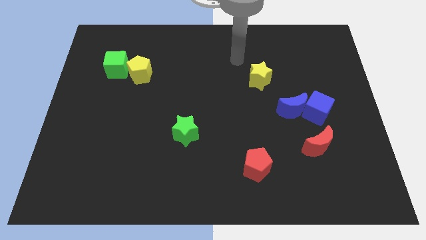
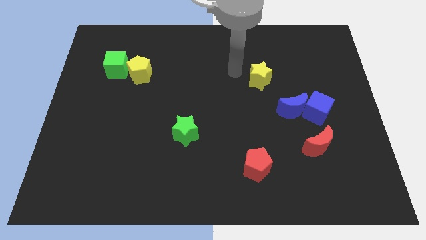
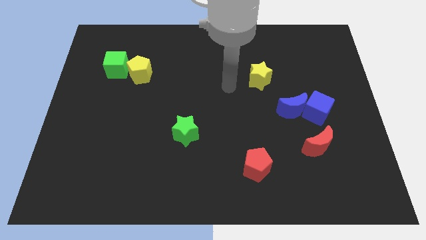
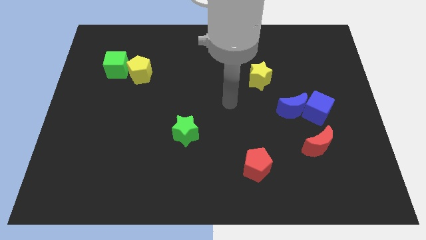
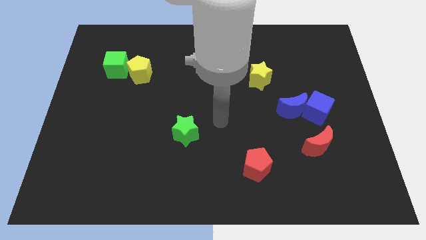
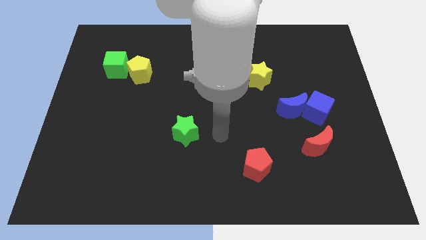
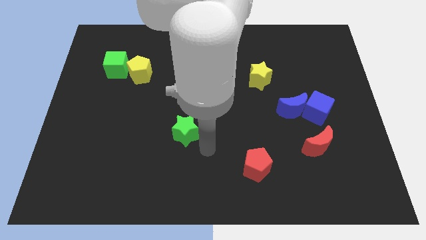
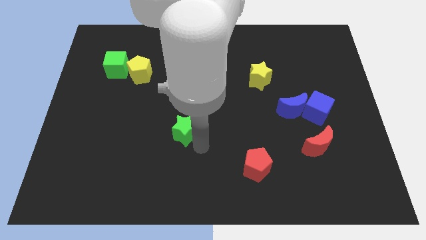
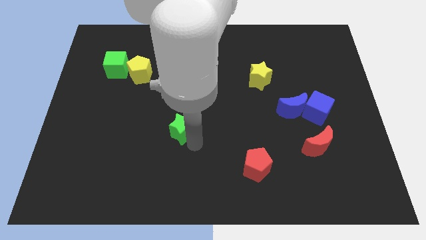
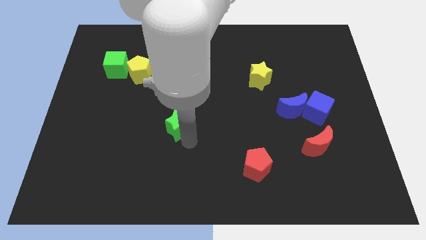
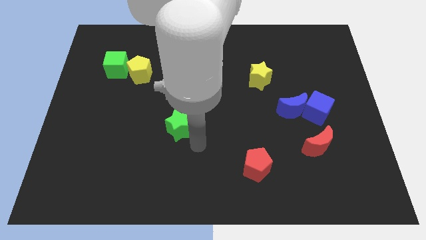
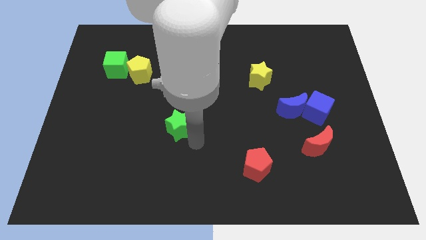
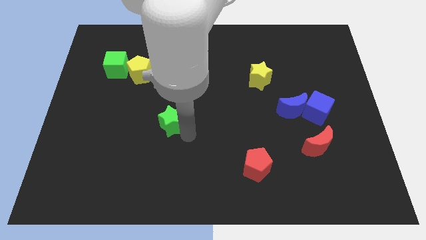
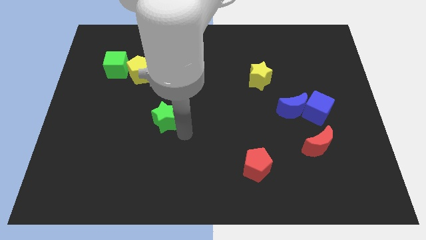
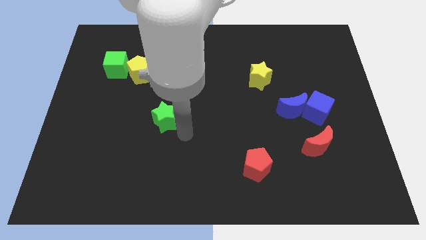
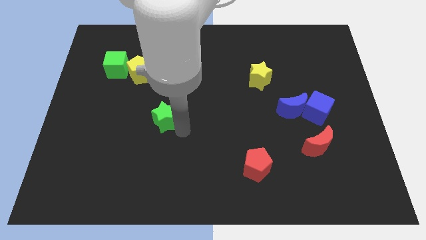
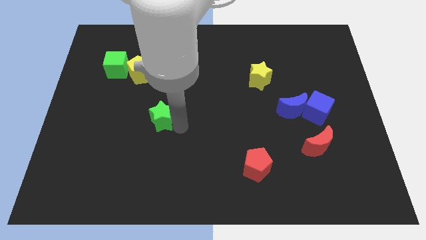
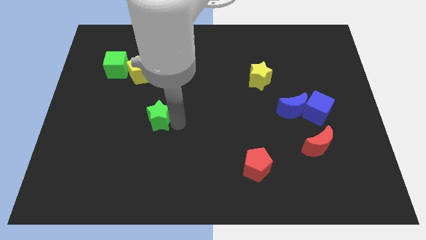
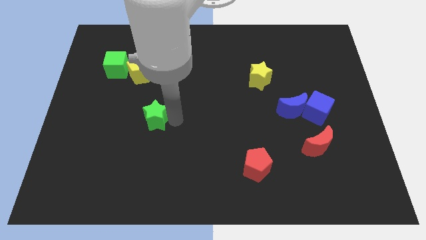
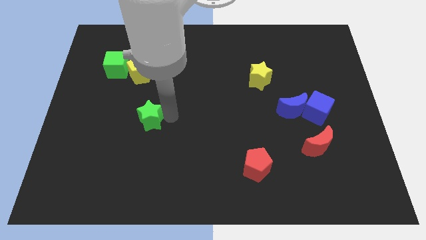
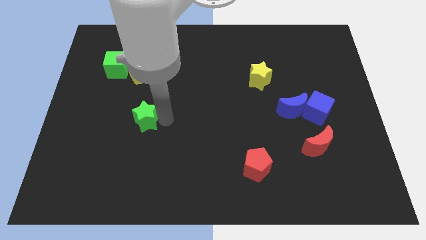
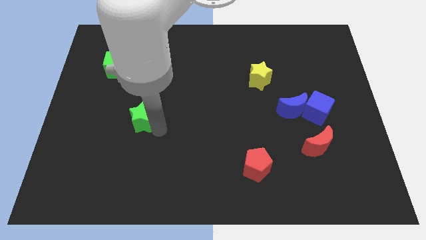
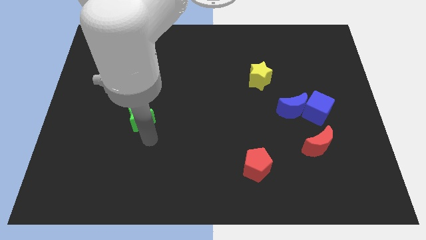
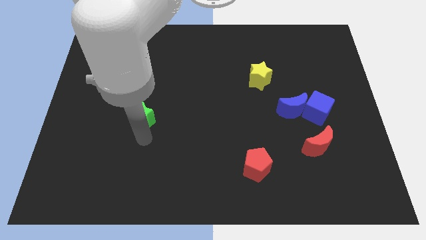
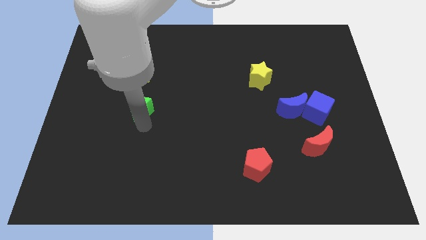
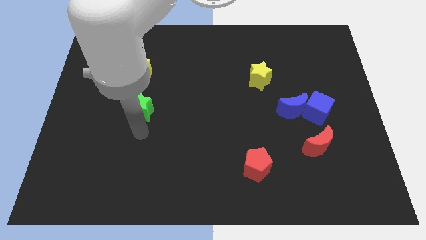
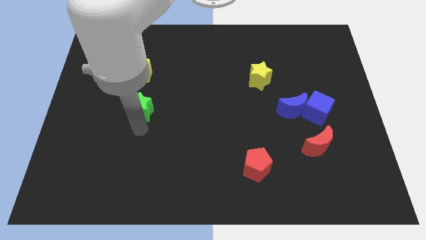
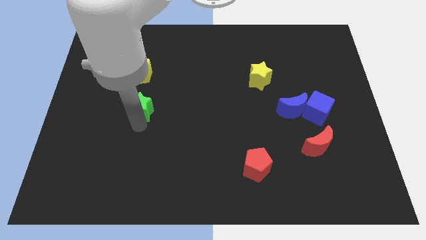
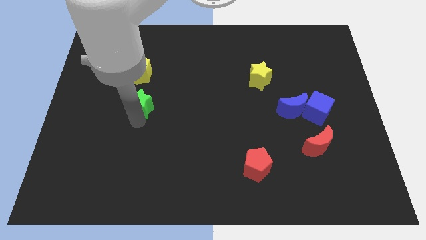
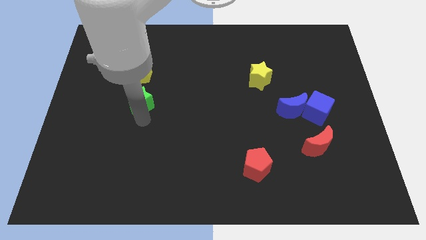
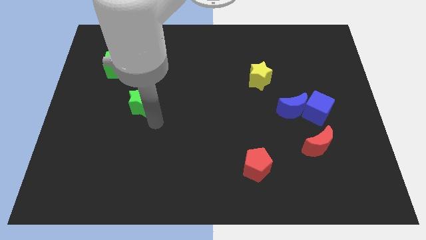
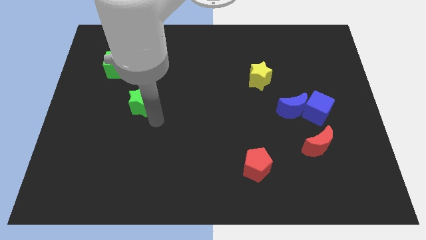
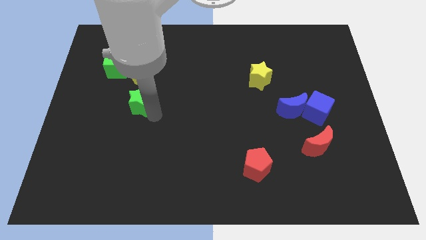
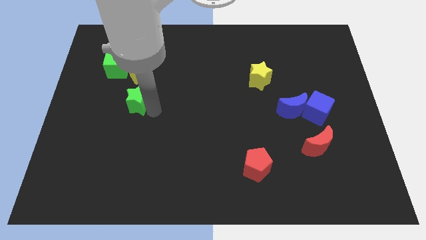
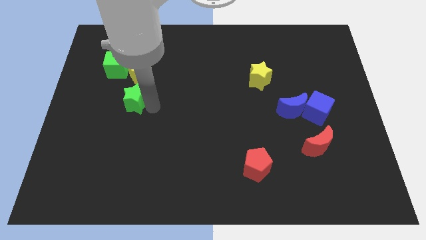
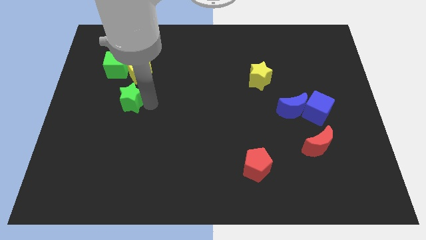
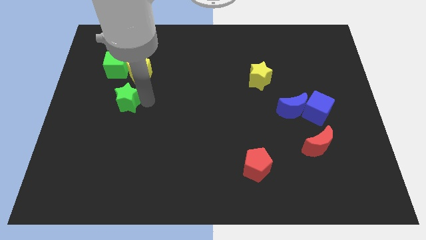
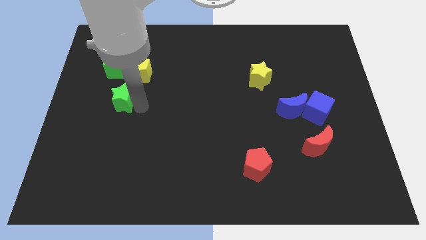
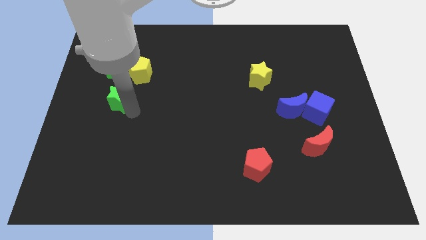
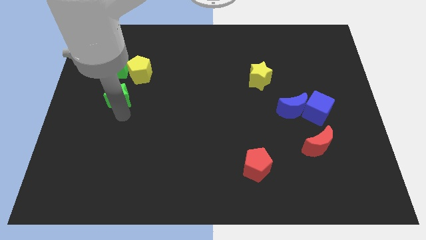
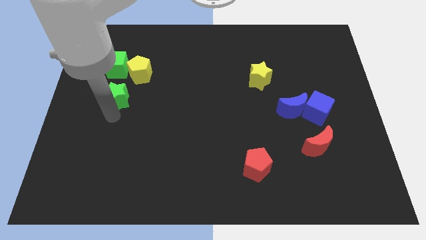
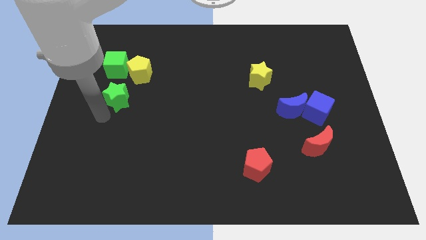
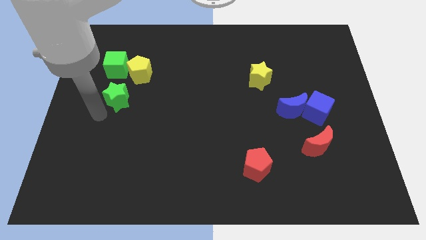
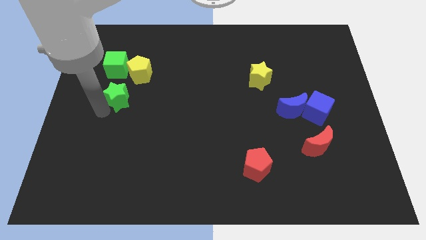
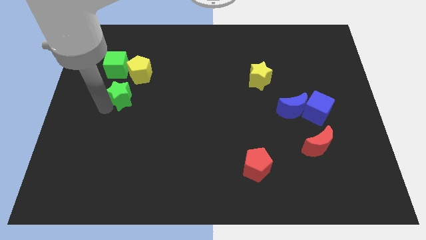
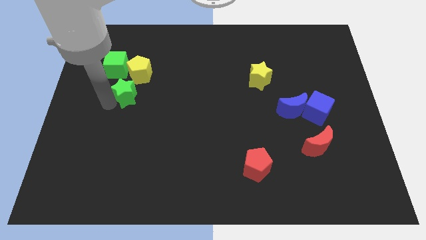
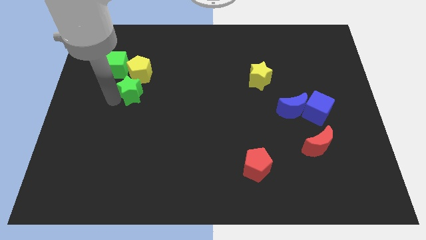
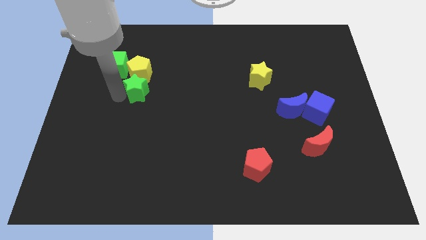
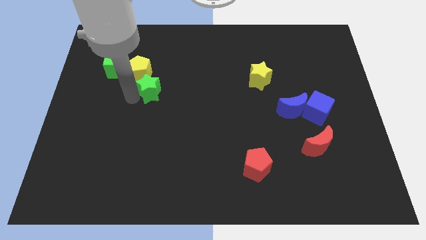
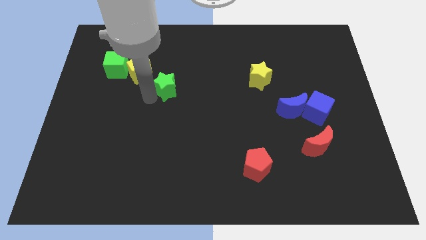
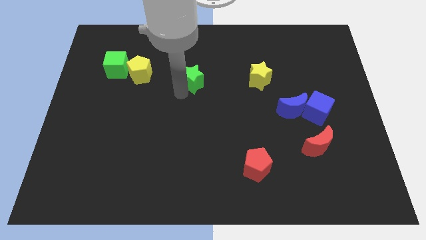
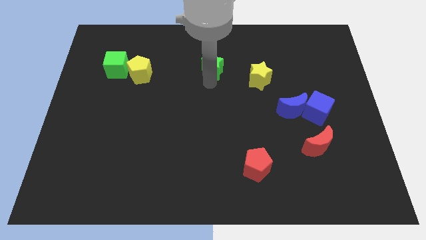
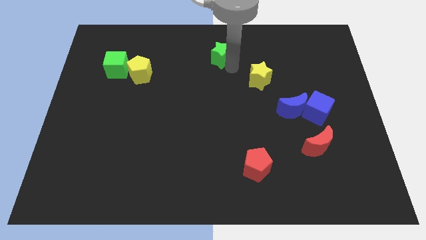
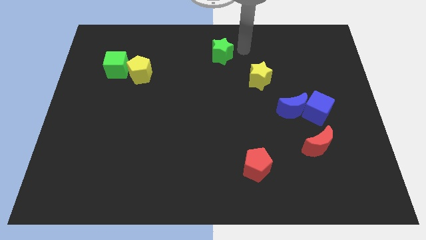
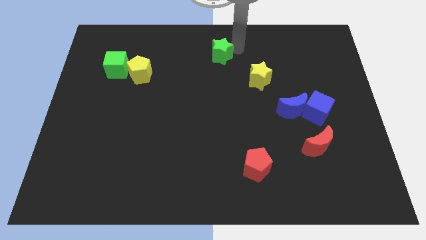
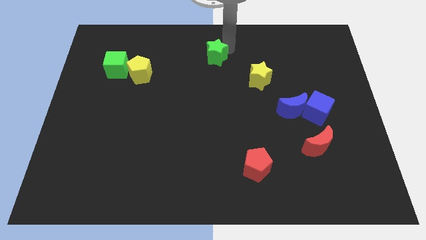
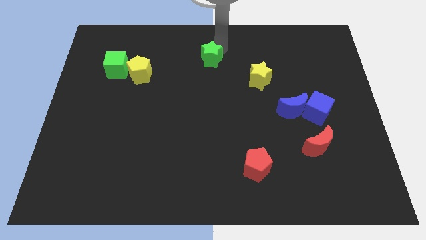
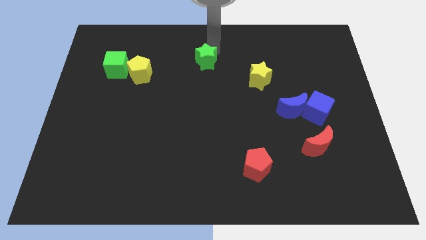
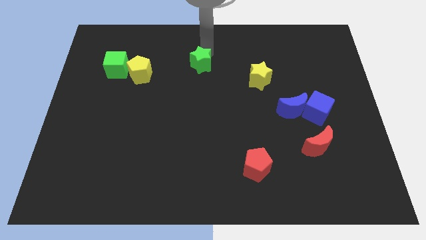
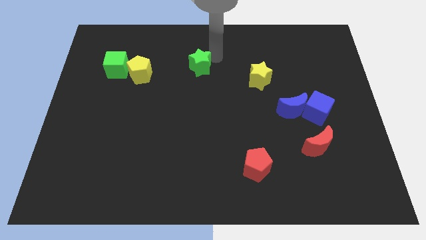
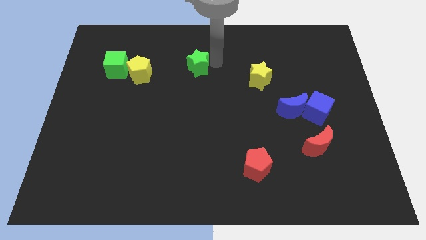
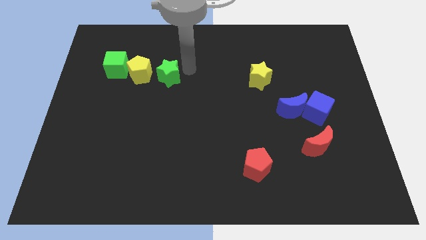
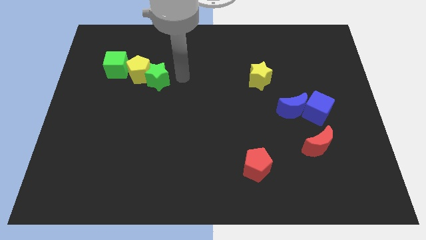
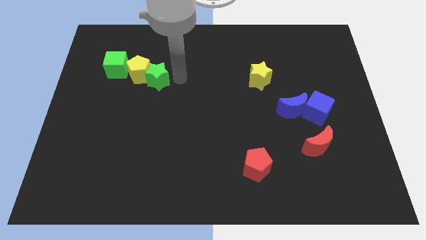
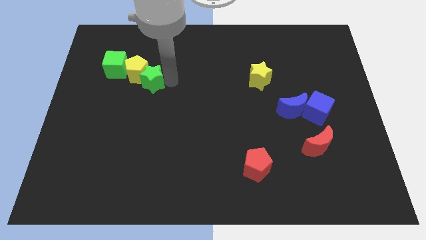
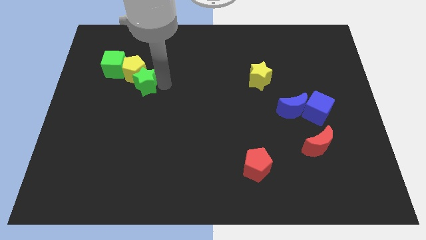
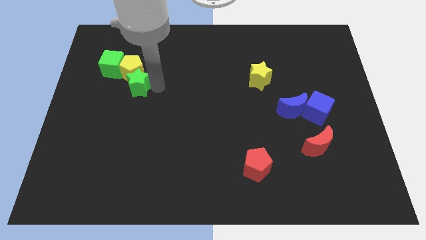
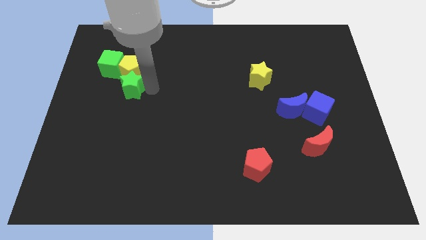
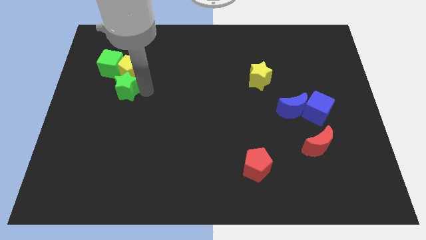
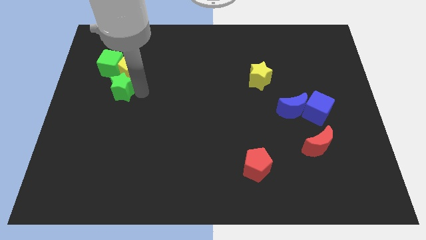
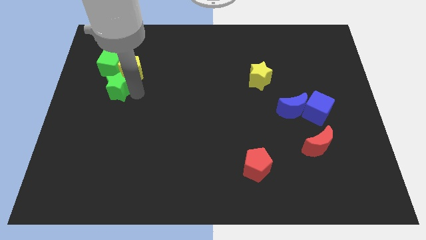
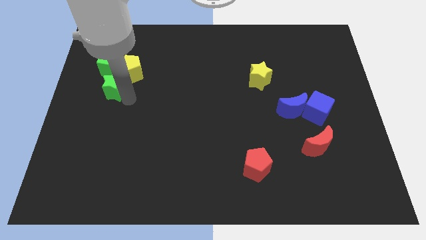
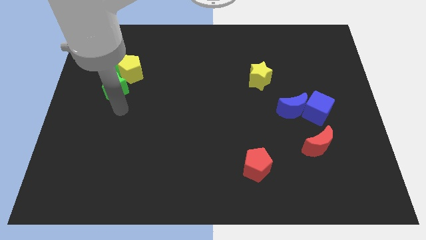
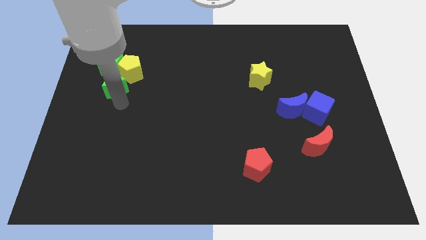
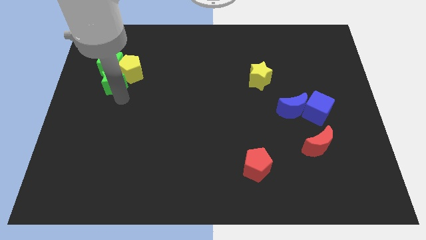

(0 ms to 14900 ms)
move the green star towards the green cube
